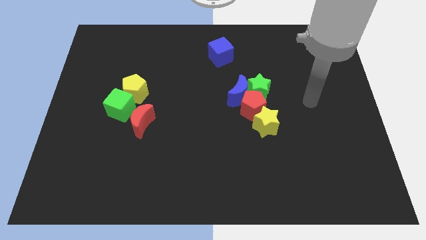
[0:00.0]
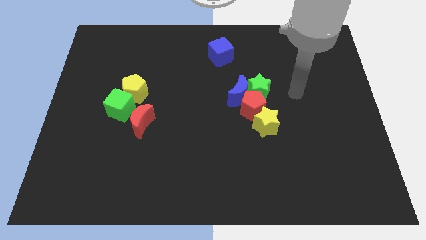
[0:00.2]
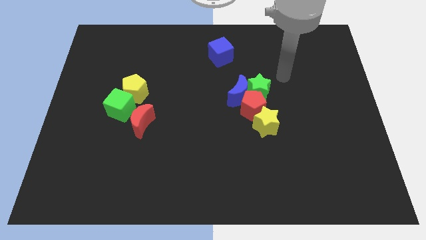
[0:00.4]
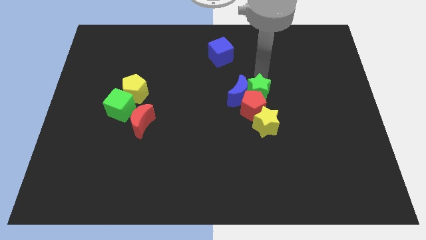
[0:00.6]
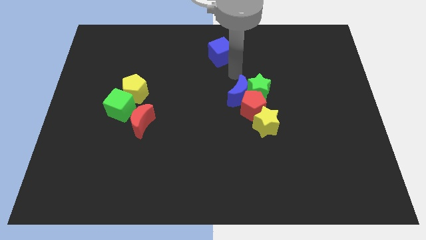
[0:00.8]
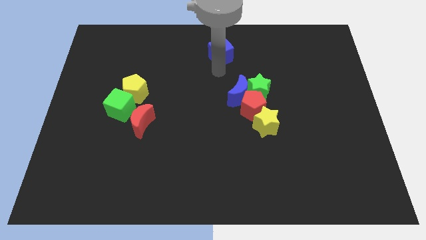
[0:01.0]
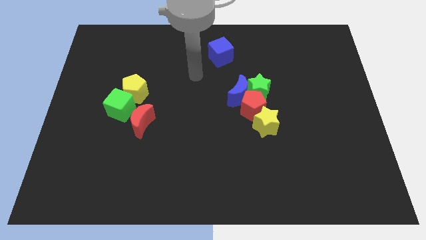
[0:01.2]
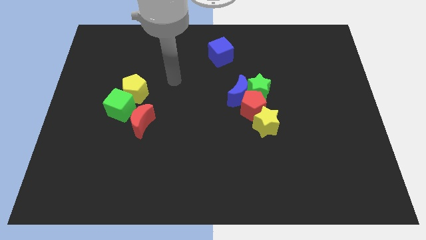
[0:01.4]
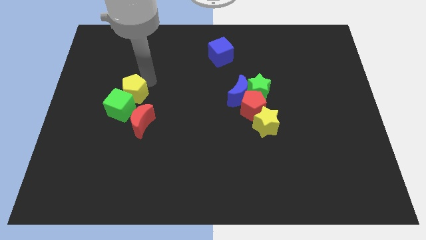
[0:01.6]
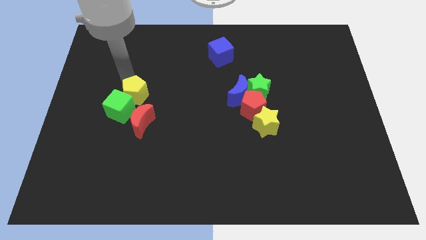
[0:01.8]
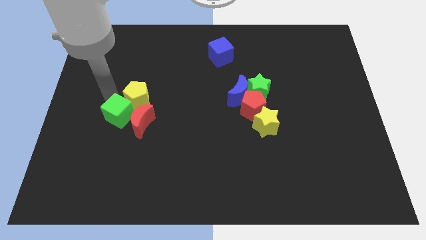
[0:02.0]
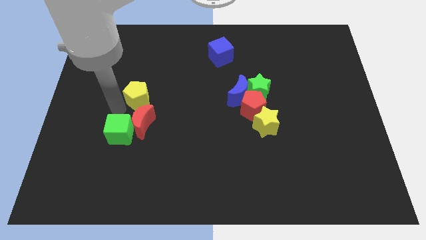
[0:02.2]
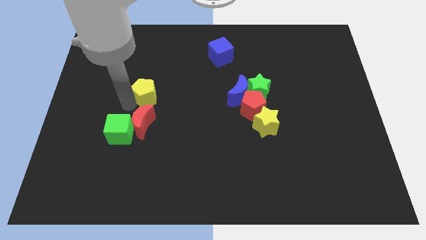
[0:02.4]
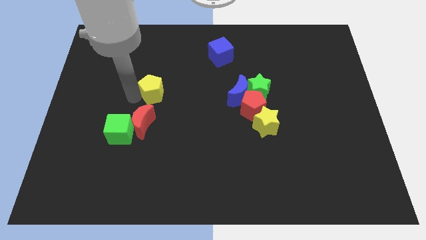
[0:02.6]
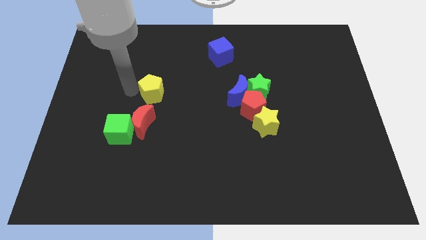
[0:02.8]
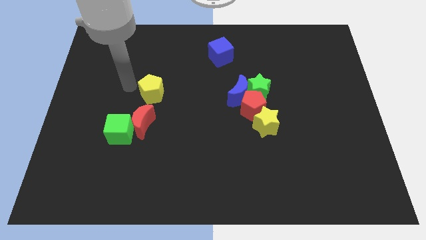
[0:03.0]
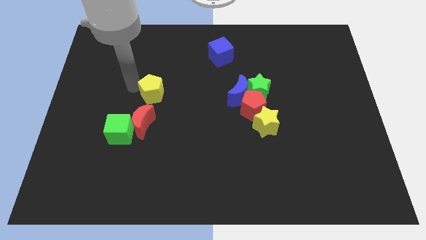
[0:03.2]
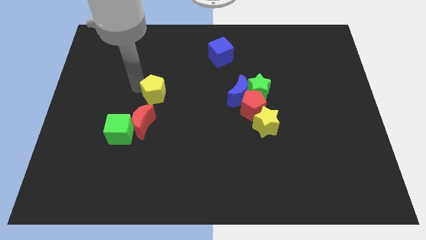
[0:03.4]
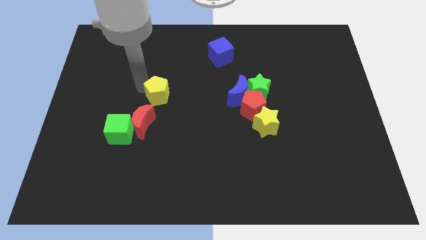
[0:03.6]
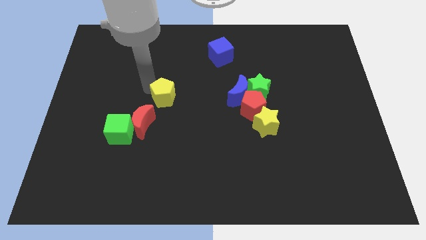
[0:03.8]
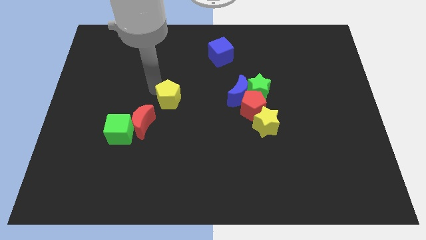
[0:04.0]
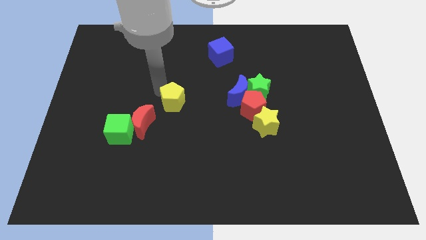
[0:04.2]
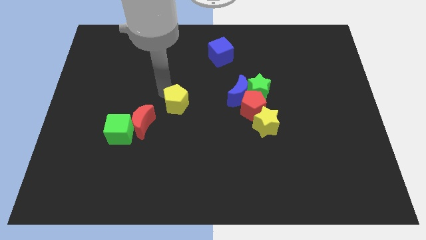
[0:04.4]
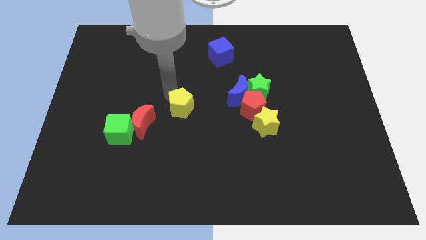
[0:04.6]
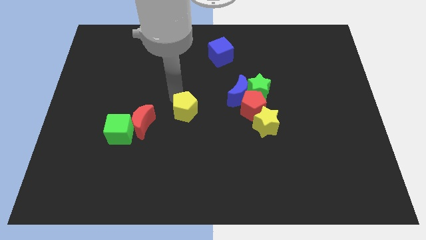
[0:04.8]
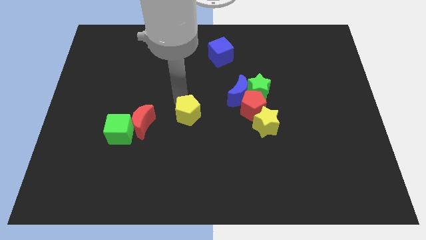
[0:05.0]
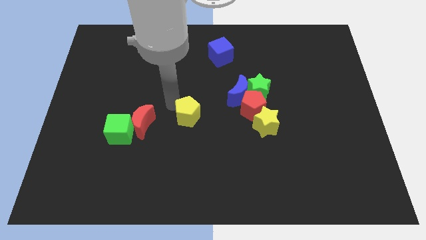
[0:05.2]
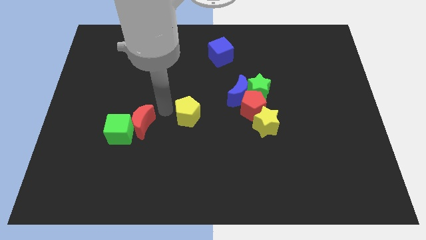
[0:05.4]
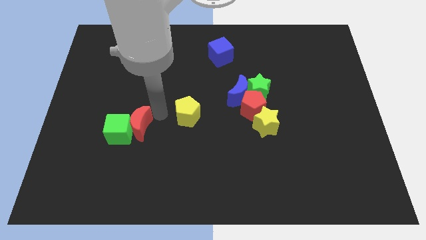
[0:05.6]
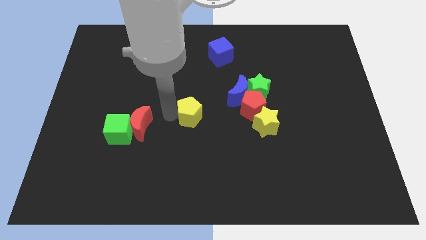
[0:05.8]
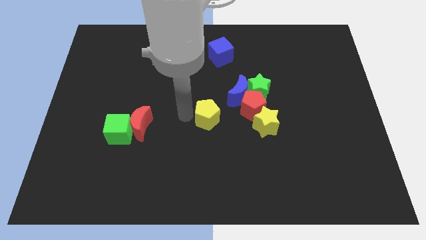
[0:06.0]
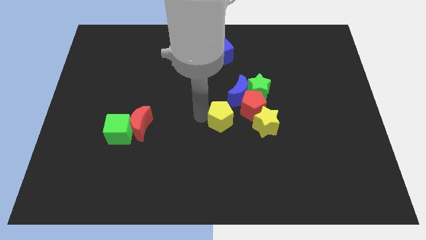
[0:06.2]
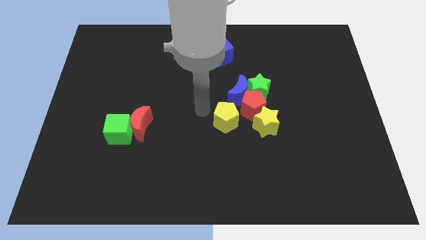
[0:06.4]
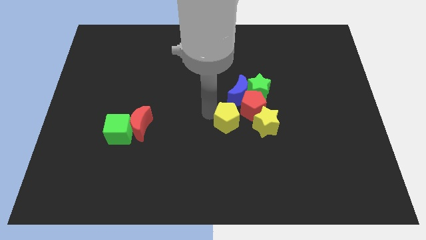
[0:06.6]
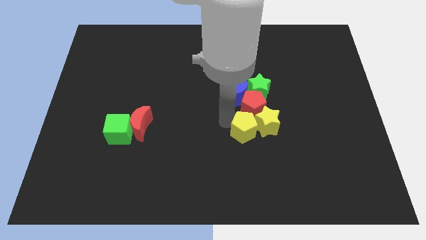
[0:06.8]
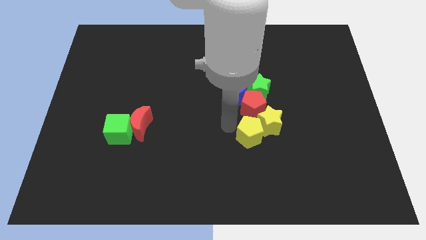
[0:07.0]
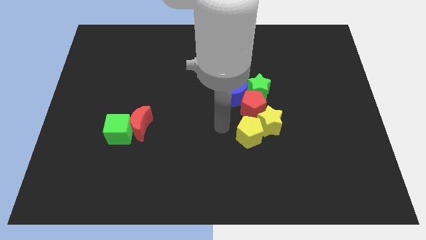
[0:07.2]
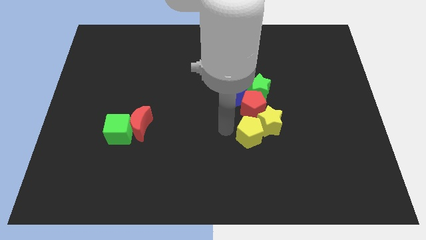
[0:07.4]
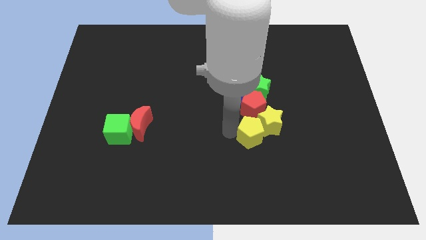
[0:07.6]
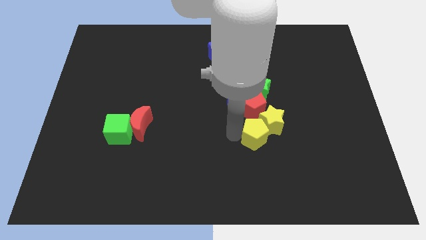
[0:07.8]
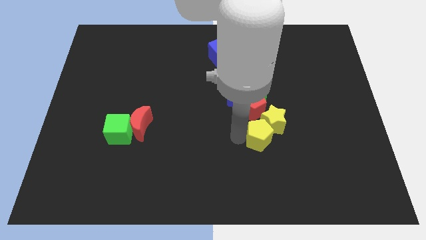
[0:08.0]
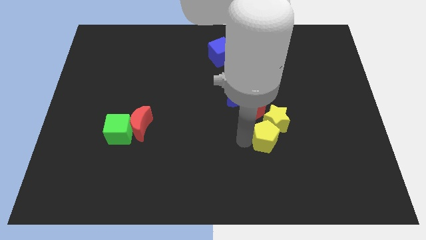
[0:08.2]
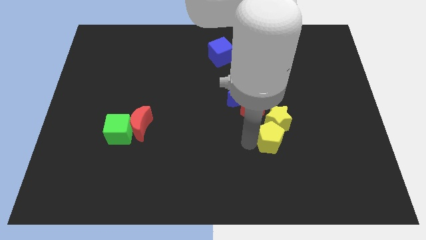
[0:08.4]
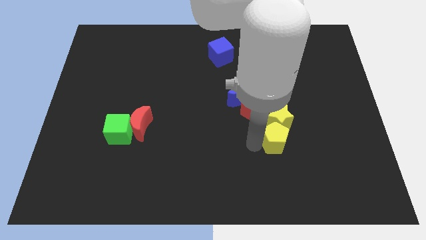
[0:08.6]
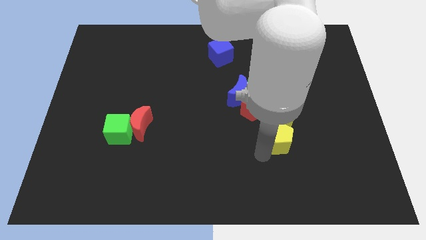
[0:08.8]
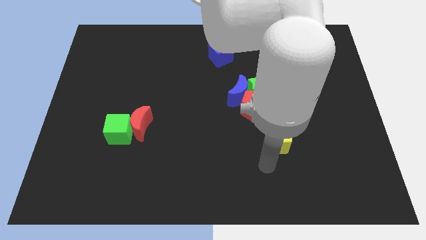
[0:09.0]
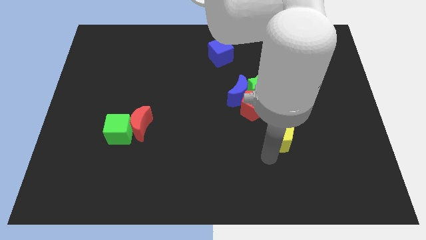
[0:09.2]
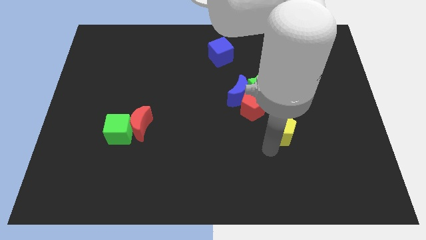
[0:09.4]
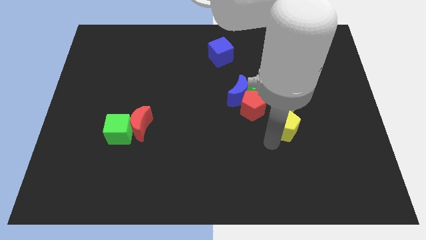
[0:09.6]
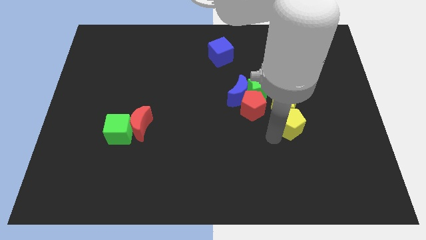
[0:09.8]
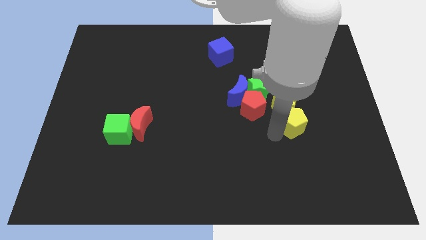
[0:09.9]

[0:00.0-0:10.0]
put the yellow pentagon right of the red pentagon

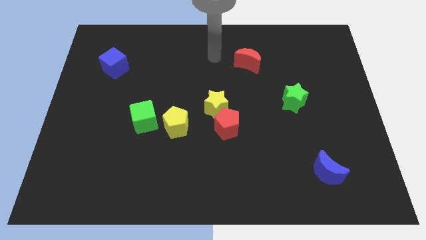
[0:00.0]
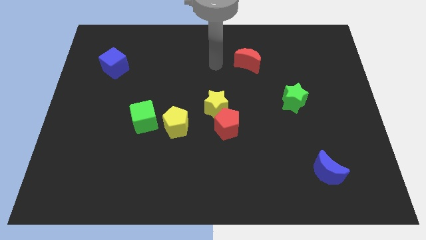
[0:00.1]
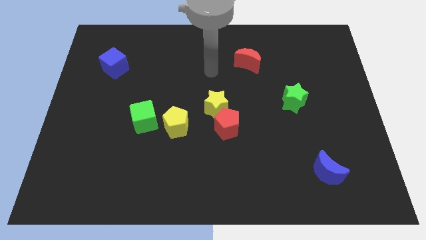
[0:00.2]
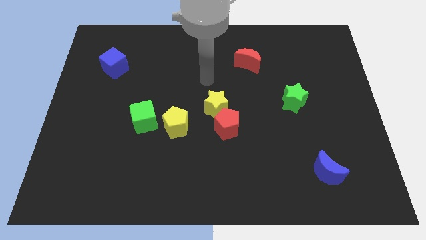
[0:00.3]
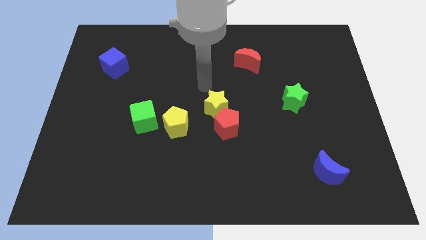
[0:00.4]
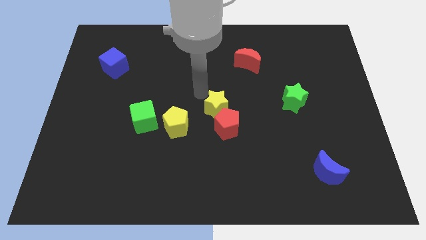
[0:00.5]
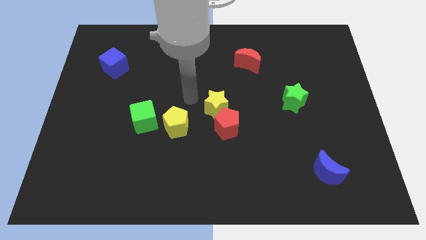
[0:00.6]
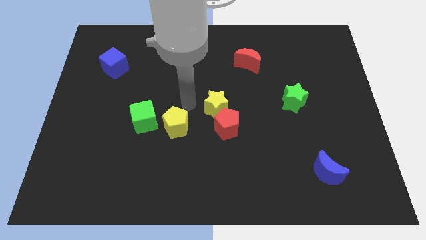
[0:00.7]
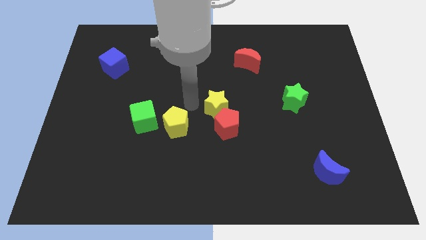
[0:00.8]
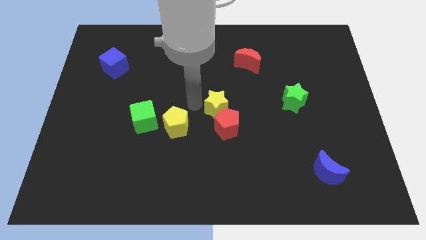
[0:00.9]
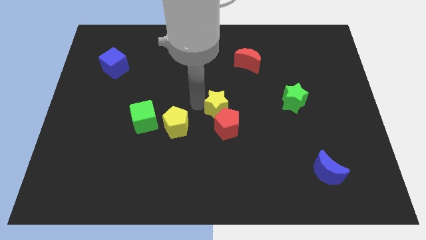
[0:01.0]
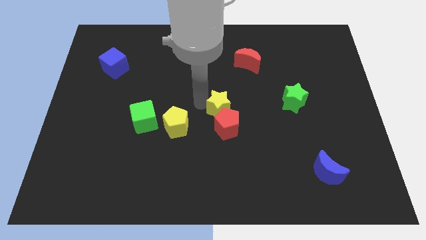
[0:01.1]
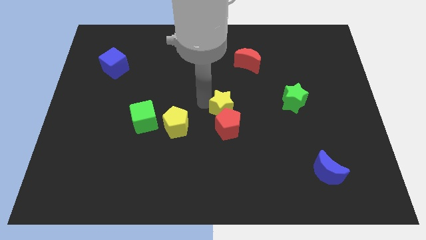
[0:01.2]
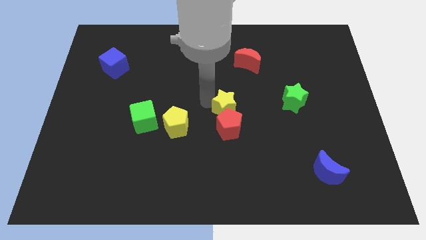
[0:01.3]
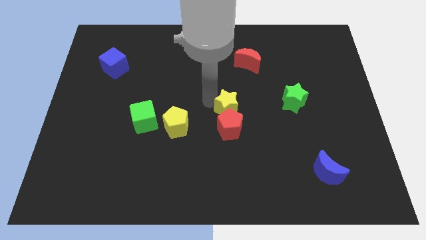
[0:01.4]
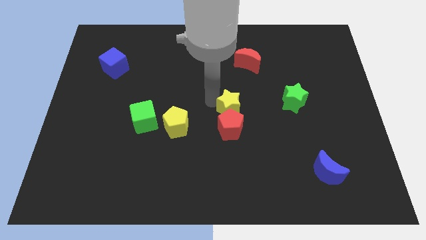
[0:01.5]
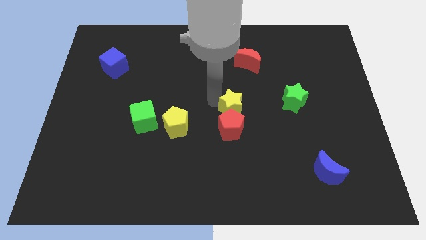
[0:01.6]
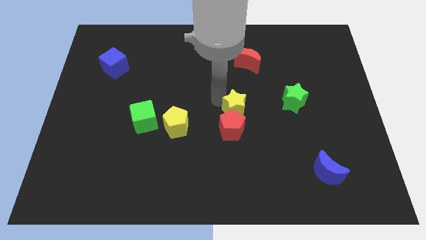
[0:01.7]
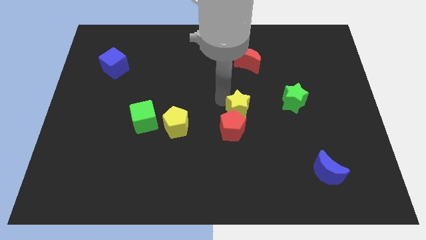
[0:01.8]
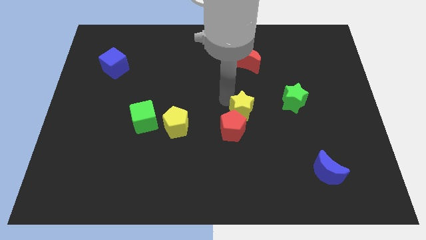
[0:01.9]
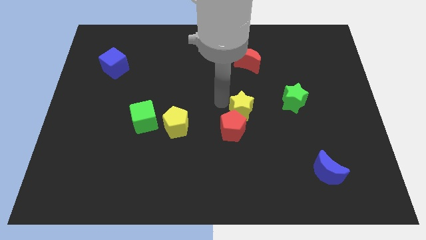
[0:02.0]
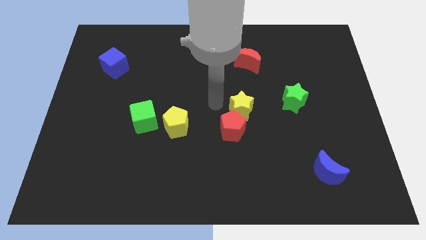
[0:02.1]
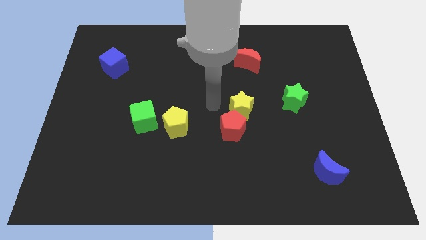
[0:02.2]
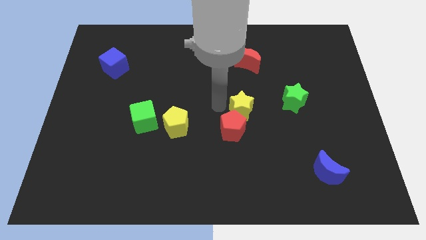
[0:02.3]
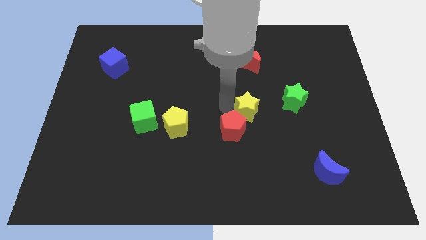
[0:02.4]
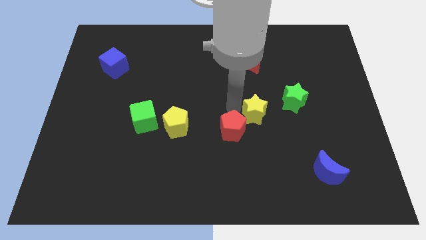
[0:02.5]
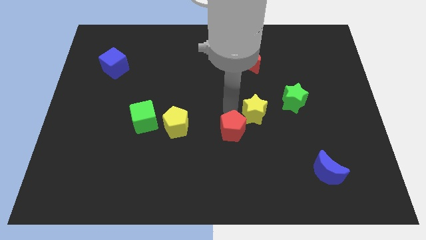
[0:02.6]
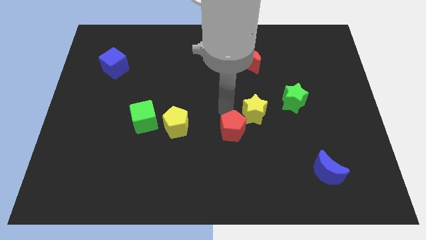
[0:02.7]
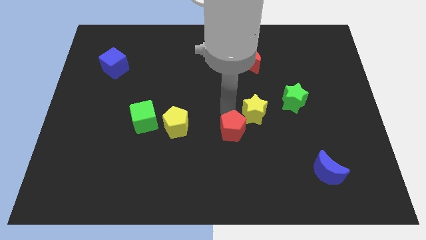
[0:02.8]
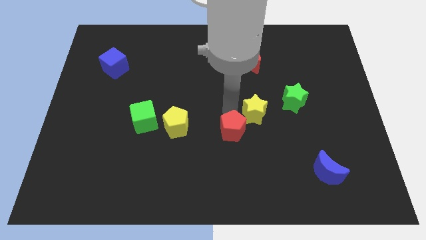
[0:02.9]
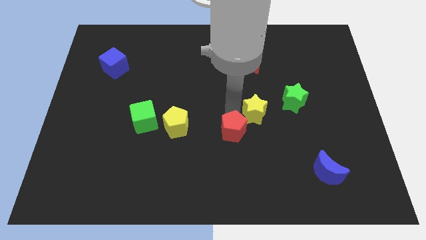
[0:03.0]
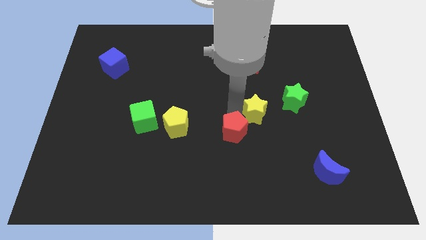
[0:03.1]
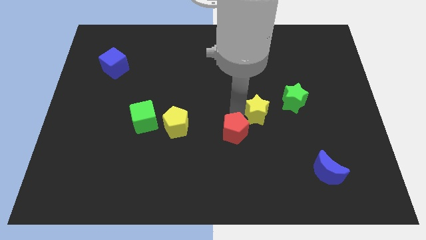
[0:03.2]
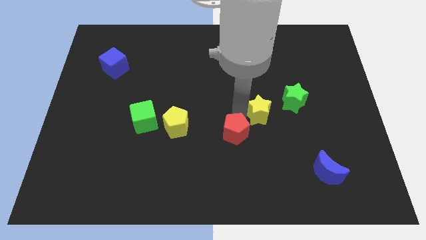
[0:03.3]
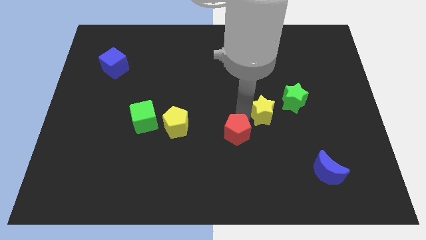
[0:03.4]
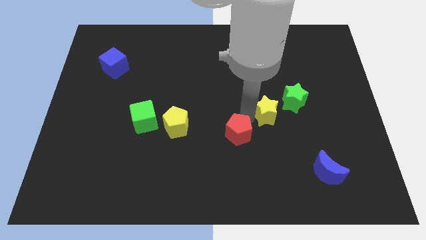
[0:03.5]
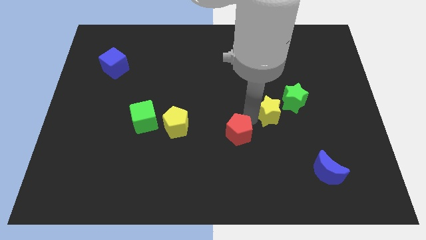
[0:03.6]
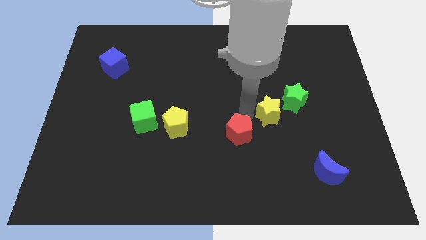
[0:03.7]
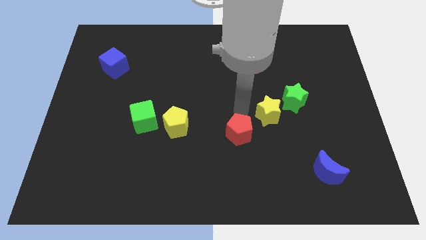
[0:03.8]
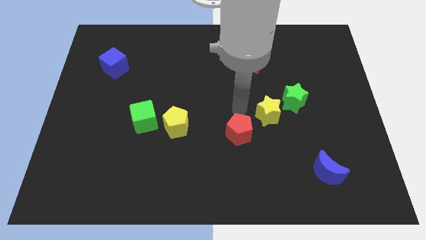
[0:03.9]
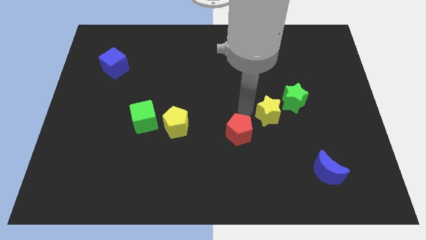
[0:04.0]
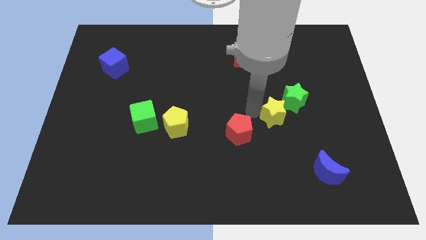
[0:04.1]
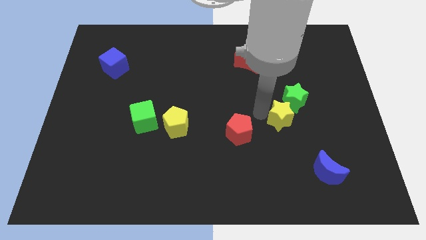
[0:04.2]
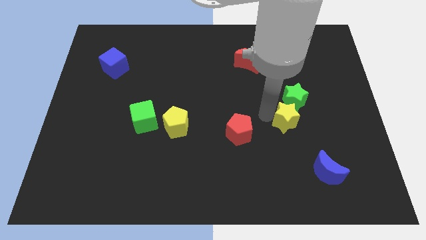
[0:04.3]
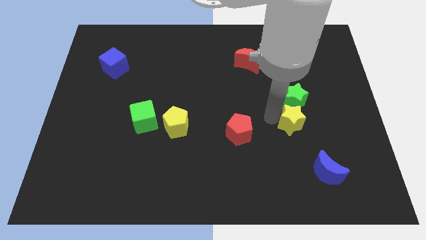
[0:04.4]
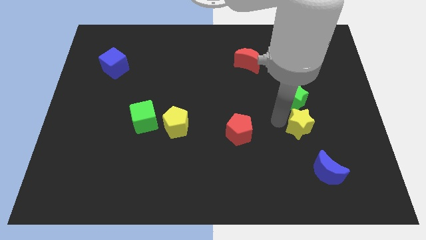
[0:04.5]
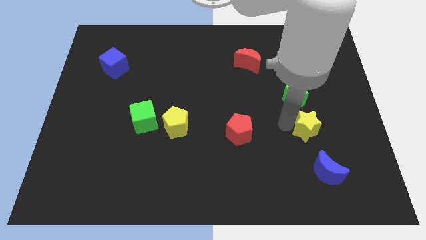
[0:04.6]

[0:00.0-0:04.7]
push the yellow star to the bottom right side of the green star
